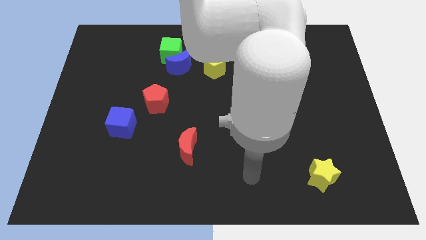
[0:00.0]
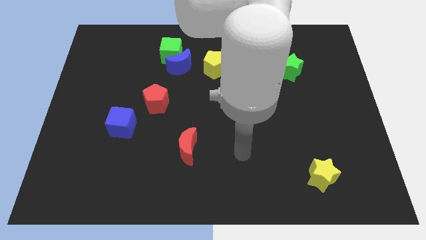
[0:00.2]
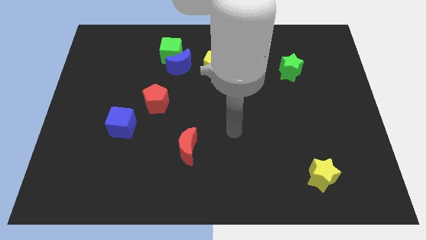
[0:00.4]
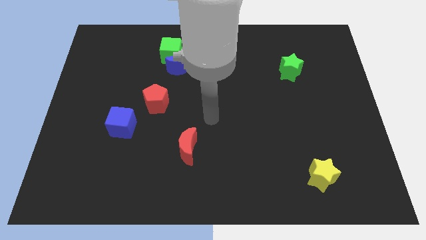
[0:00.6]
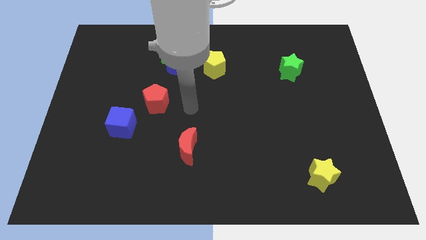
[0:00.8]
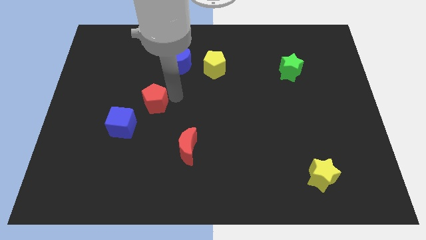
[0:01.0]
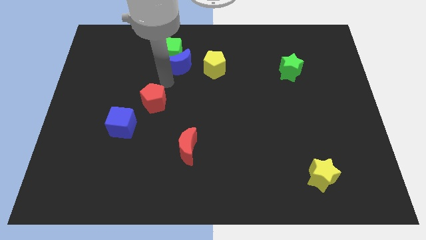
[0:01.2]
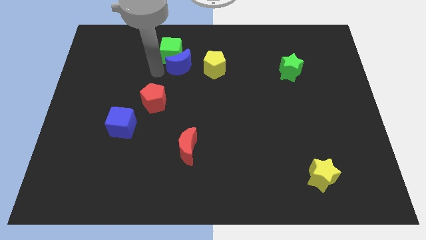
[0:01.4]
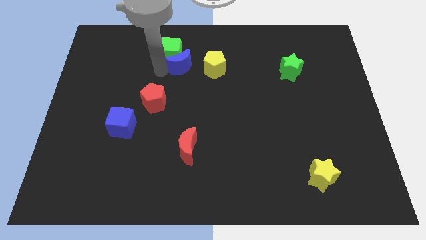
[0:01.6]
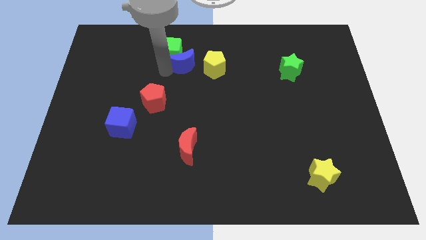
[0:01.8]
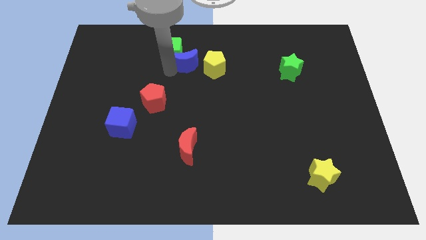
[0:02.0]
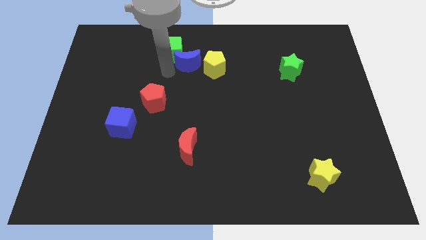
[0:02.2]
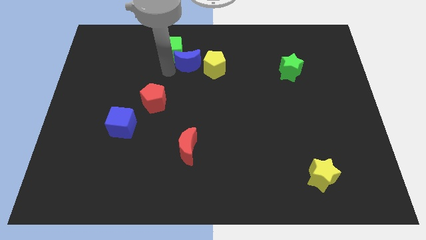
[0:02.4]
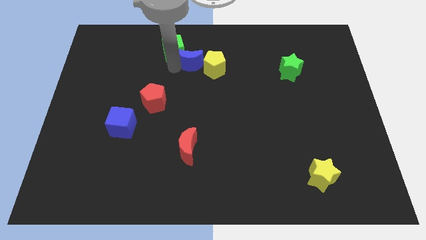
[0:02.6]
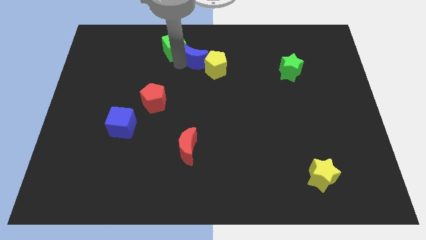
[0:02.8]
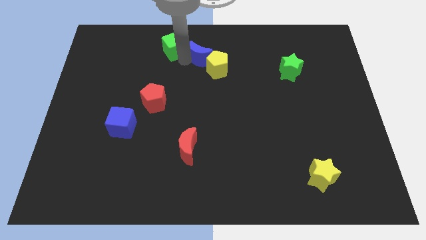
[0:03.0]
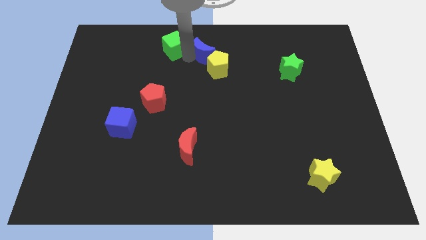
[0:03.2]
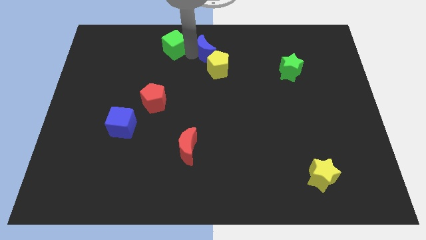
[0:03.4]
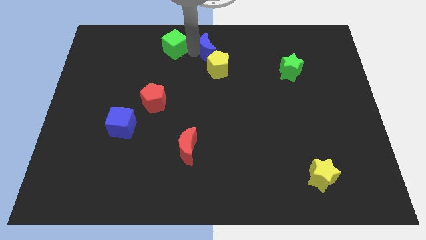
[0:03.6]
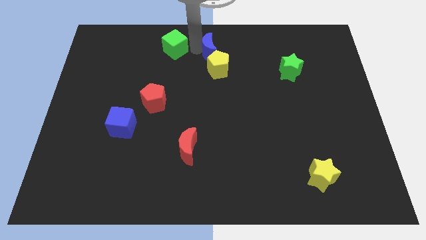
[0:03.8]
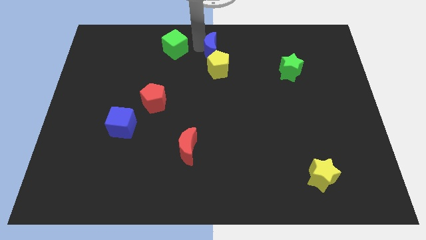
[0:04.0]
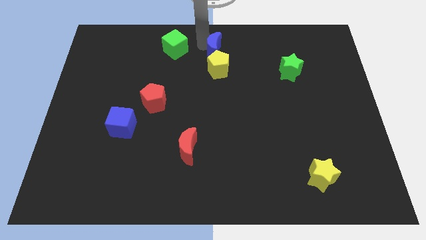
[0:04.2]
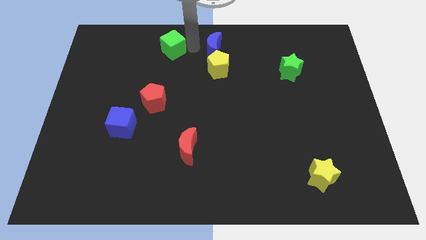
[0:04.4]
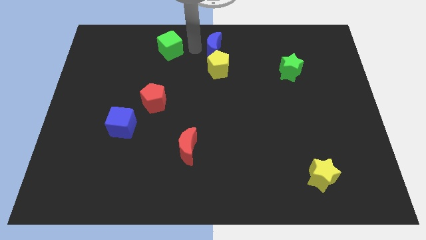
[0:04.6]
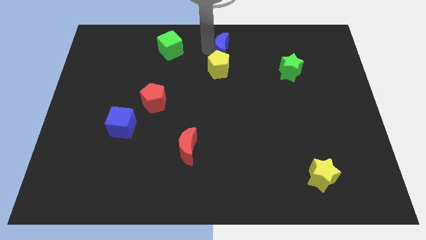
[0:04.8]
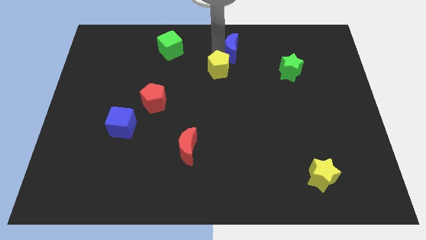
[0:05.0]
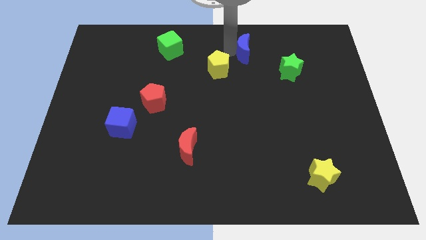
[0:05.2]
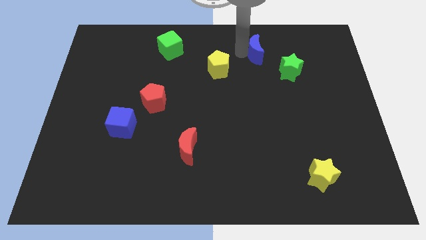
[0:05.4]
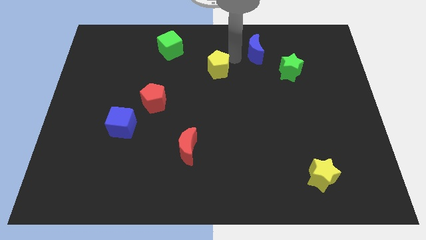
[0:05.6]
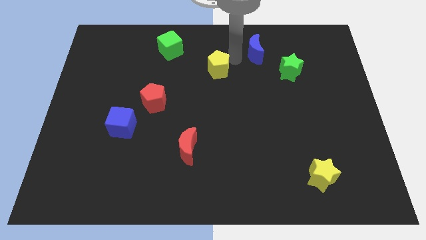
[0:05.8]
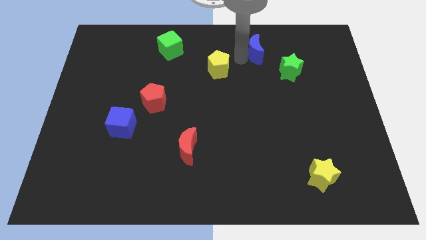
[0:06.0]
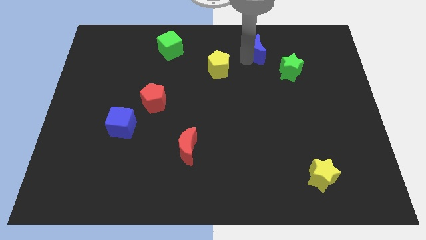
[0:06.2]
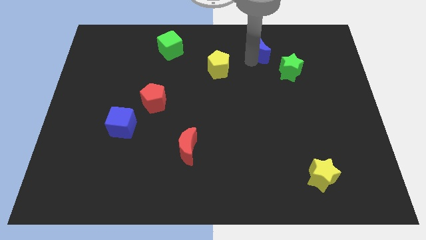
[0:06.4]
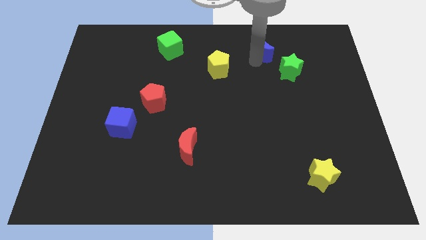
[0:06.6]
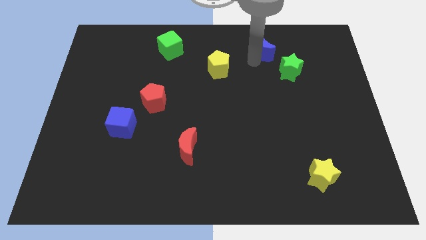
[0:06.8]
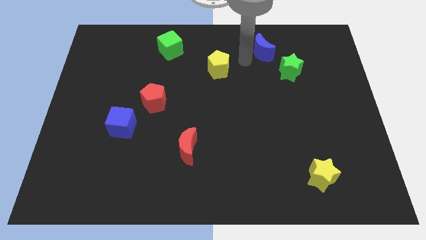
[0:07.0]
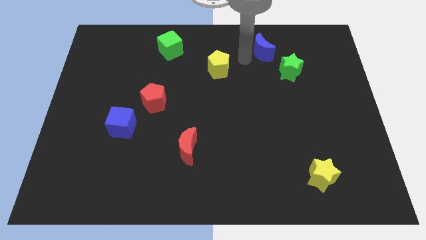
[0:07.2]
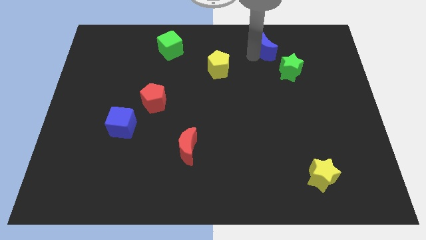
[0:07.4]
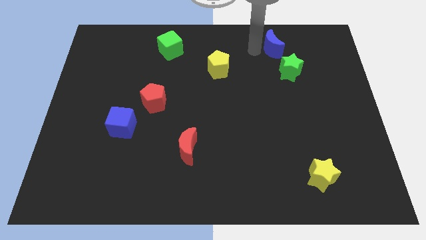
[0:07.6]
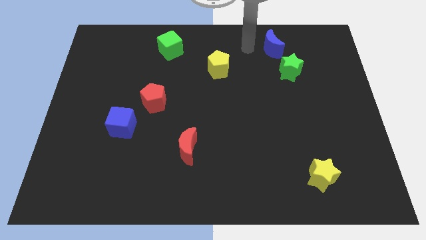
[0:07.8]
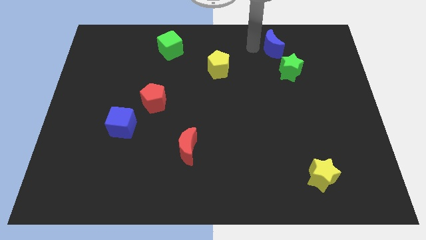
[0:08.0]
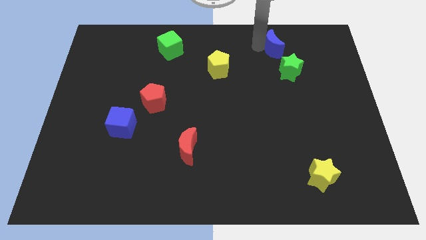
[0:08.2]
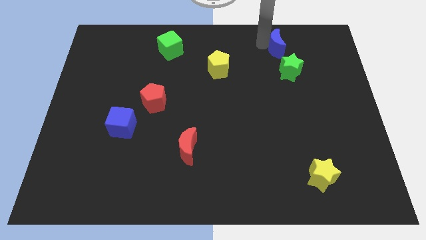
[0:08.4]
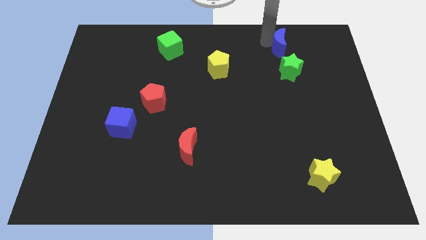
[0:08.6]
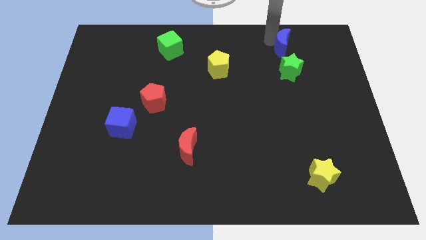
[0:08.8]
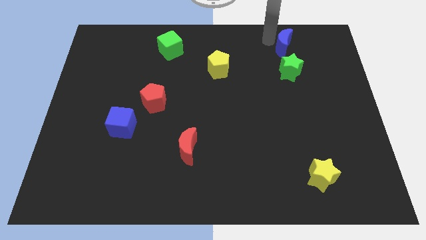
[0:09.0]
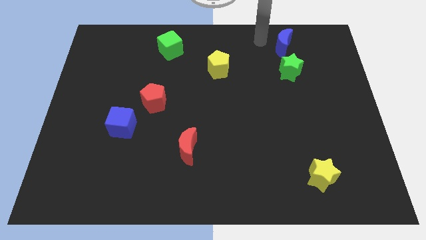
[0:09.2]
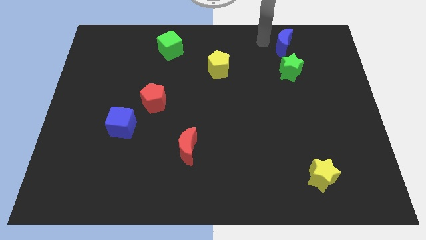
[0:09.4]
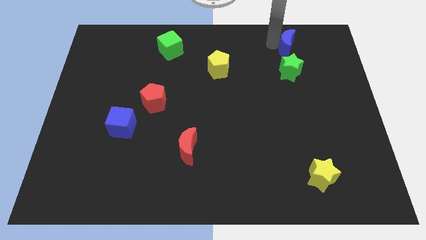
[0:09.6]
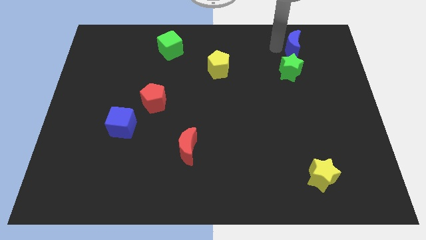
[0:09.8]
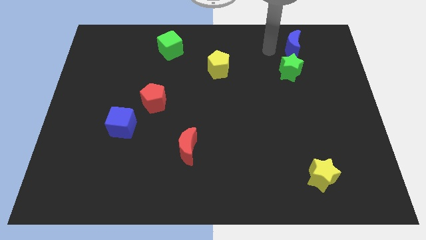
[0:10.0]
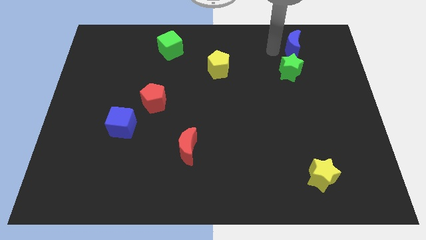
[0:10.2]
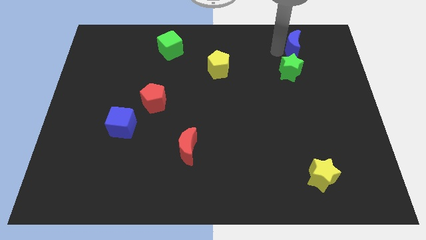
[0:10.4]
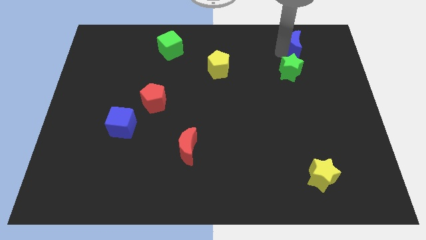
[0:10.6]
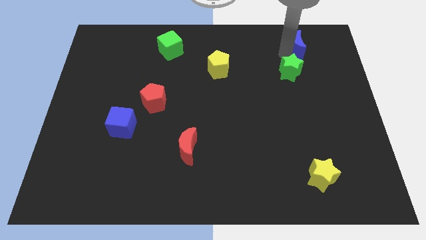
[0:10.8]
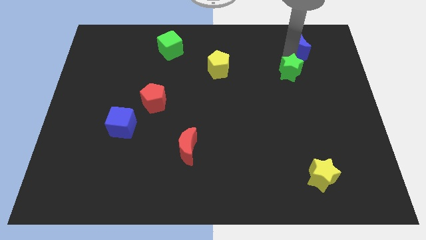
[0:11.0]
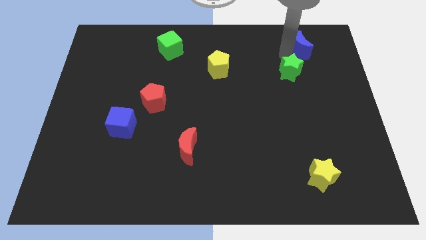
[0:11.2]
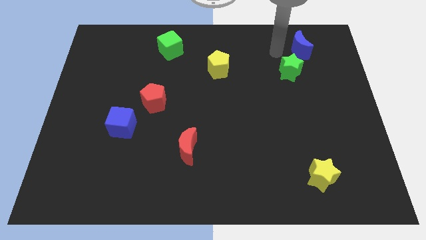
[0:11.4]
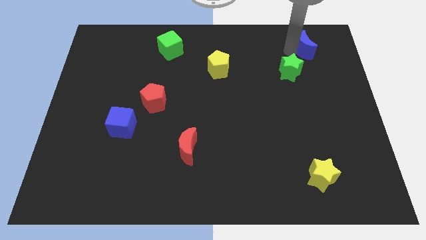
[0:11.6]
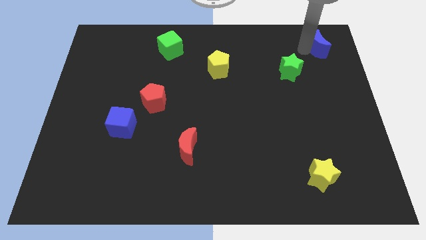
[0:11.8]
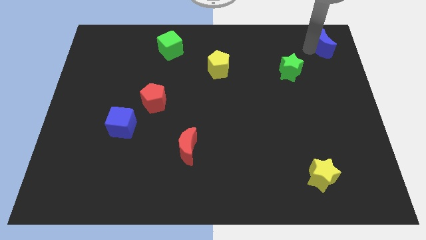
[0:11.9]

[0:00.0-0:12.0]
move the blue moon to the top right
